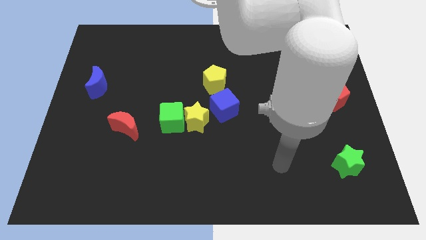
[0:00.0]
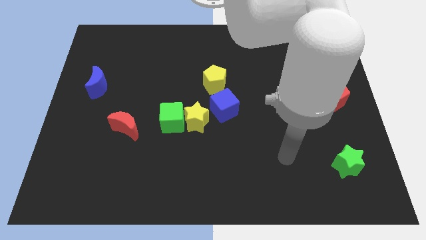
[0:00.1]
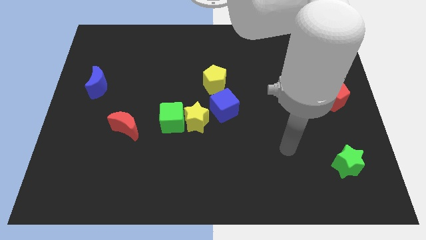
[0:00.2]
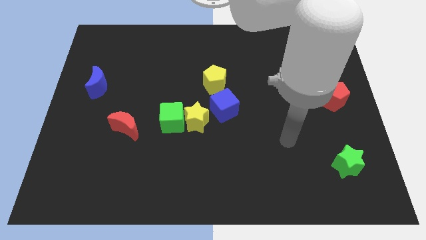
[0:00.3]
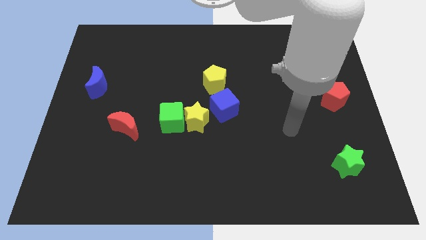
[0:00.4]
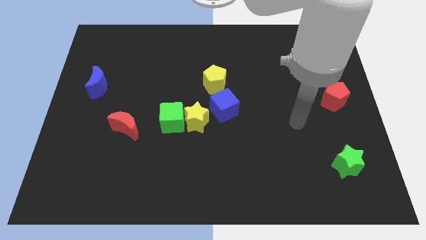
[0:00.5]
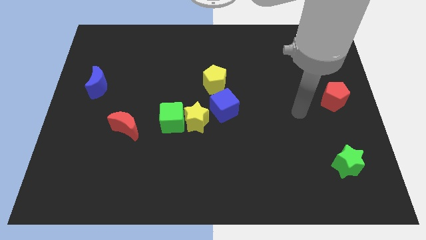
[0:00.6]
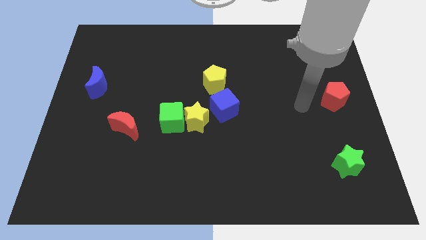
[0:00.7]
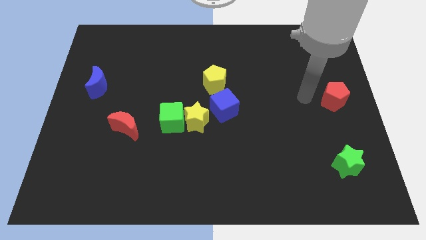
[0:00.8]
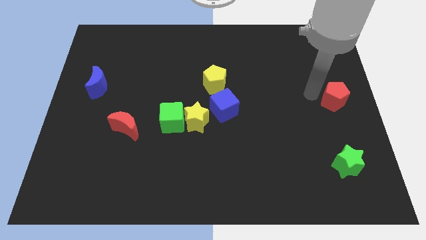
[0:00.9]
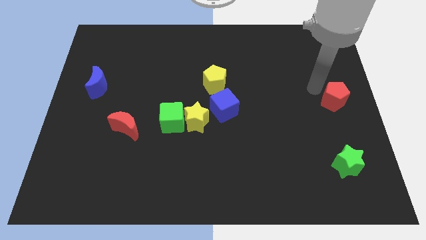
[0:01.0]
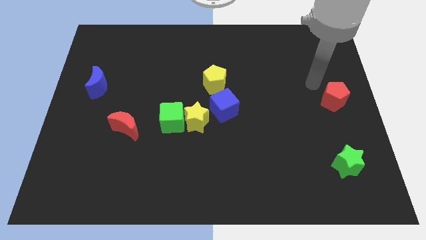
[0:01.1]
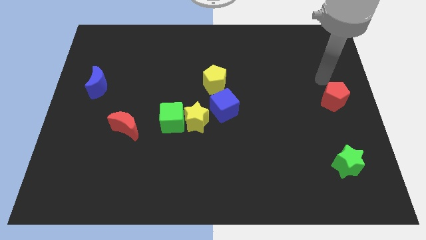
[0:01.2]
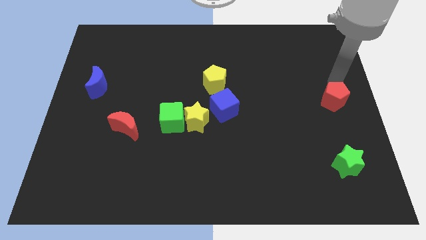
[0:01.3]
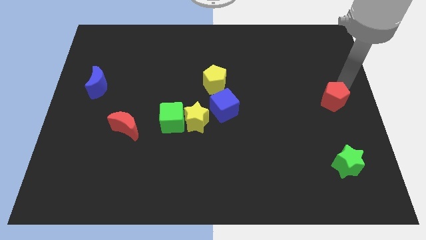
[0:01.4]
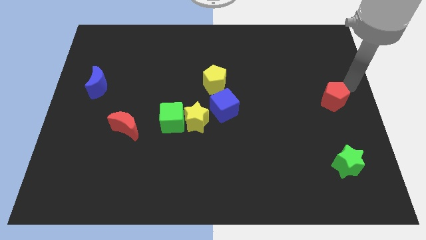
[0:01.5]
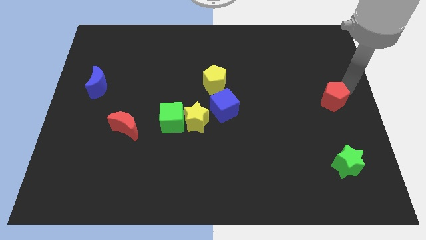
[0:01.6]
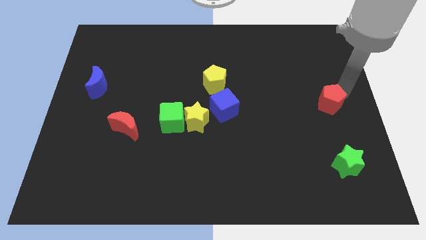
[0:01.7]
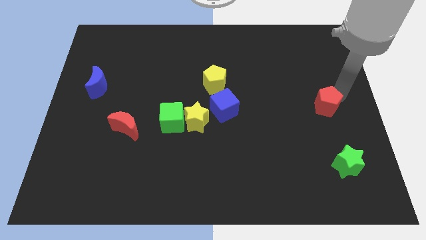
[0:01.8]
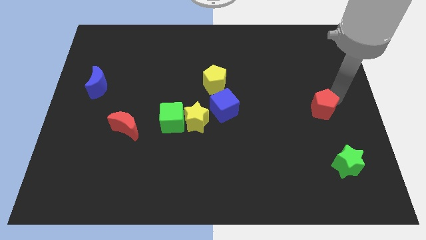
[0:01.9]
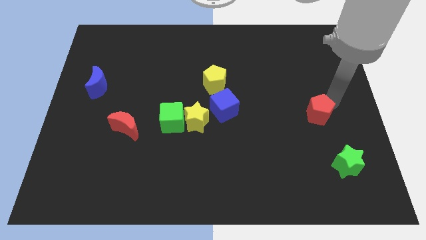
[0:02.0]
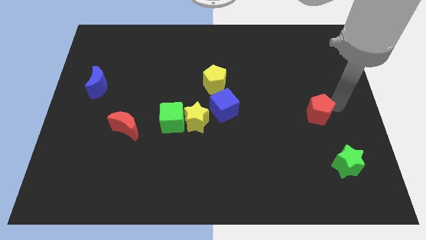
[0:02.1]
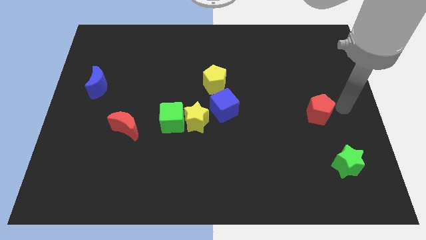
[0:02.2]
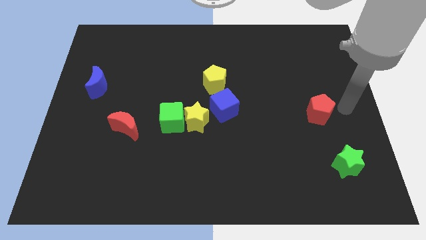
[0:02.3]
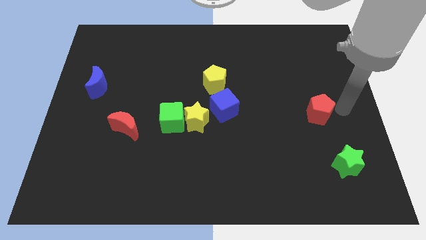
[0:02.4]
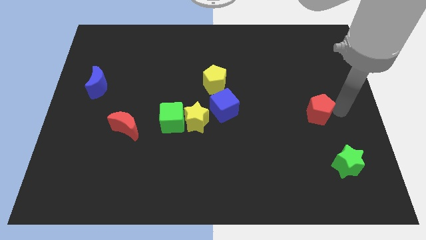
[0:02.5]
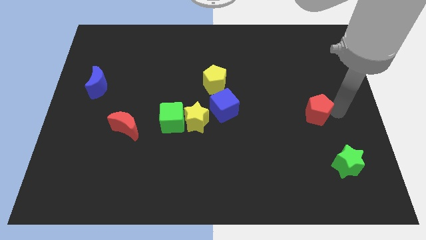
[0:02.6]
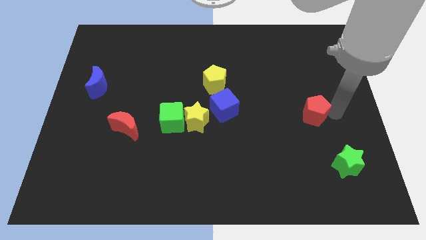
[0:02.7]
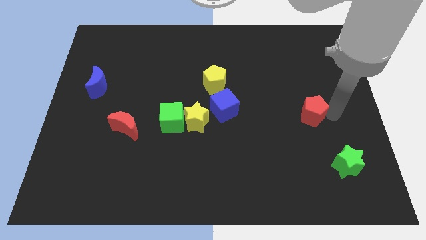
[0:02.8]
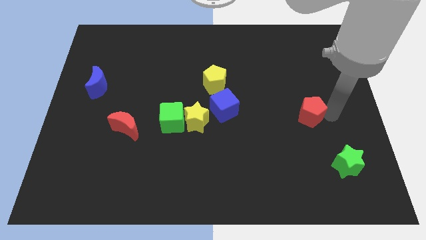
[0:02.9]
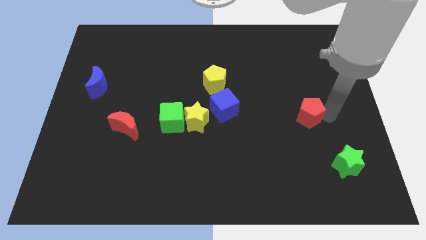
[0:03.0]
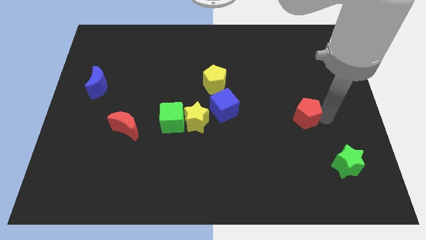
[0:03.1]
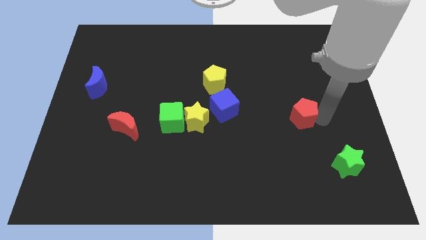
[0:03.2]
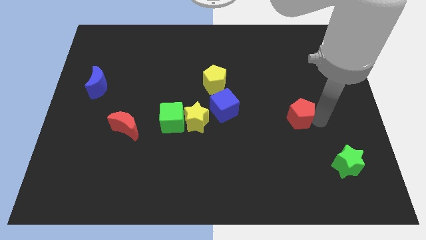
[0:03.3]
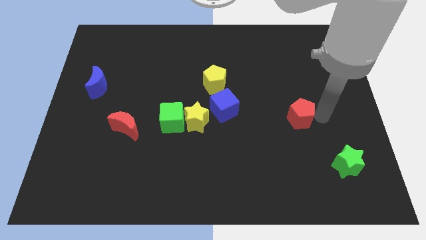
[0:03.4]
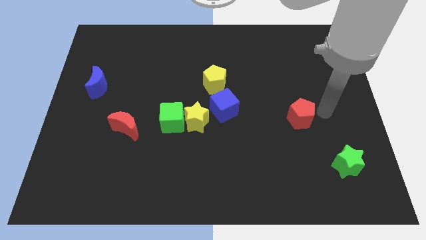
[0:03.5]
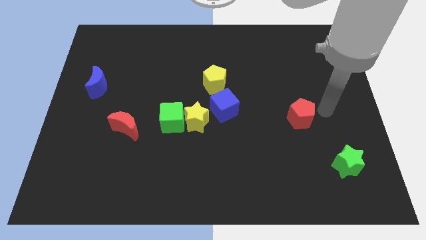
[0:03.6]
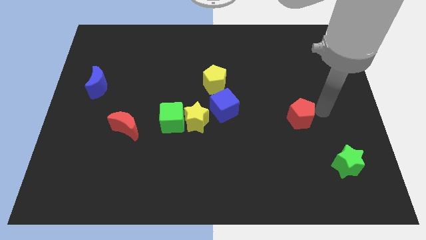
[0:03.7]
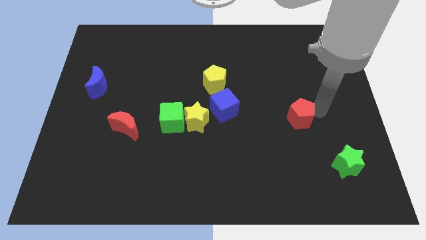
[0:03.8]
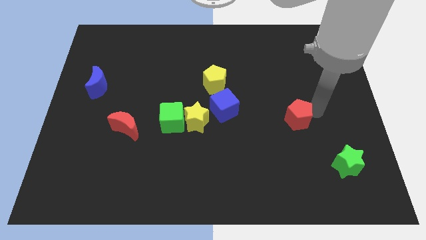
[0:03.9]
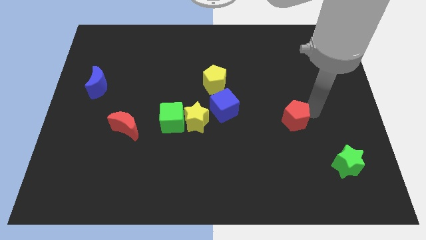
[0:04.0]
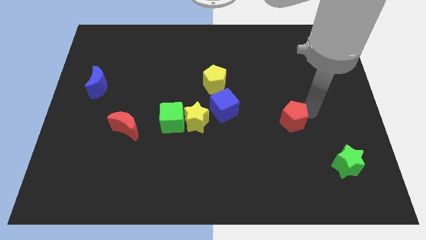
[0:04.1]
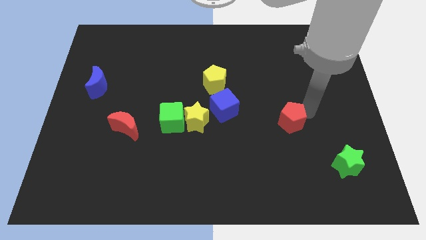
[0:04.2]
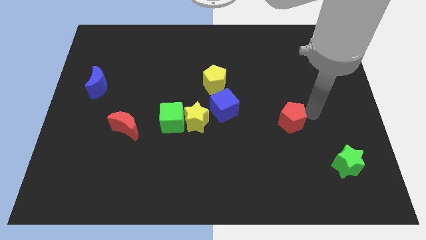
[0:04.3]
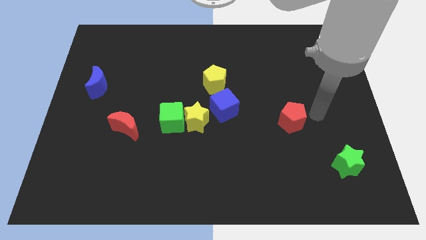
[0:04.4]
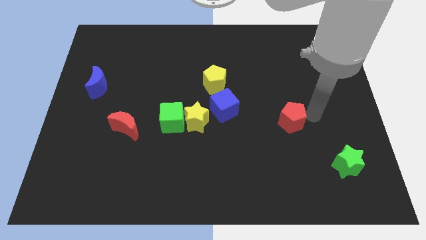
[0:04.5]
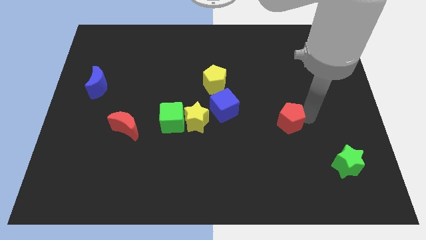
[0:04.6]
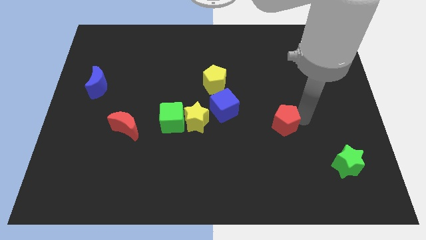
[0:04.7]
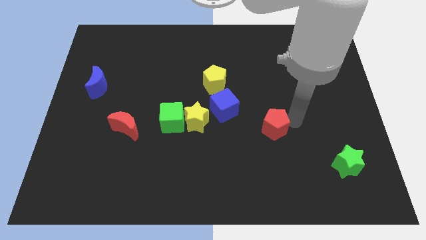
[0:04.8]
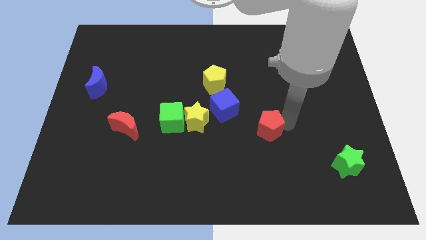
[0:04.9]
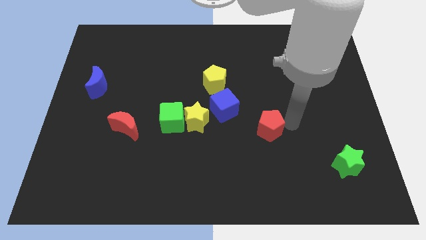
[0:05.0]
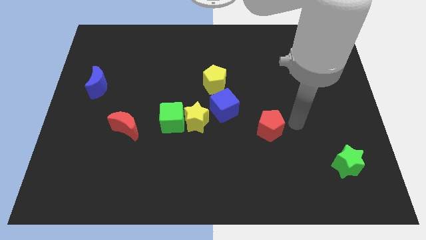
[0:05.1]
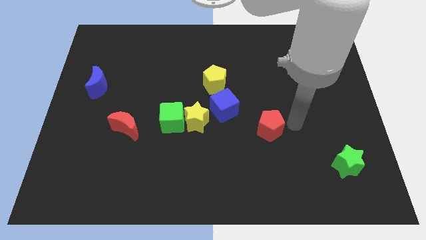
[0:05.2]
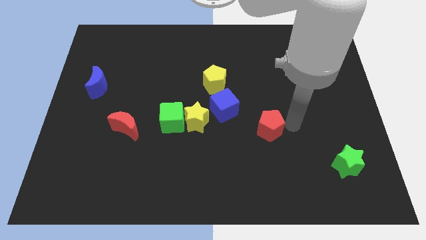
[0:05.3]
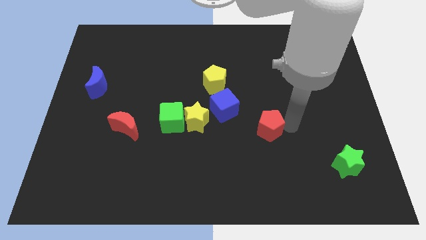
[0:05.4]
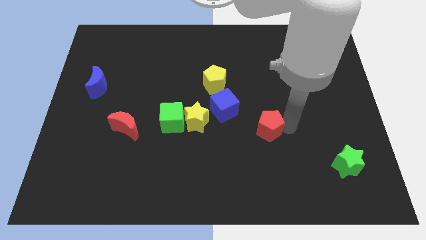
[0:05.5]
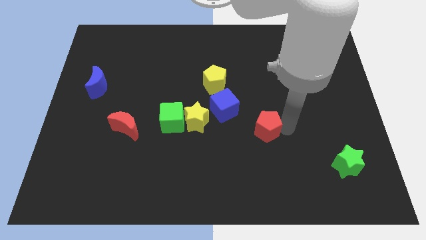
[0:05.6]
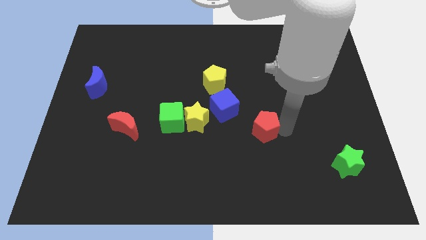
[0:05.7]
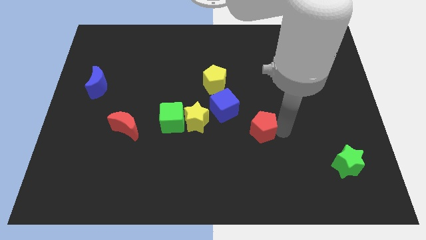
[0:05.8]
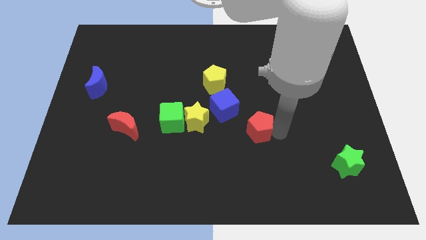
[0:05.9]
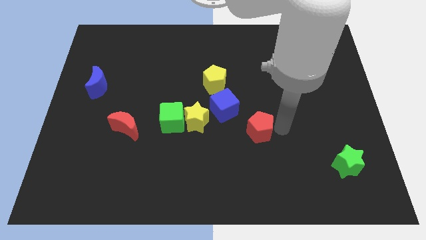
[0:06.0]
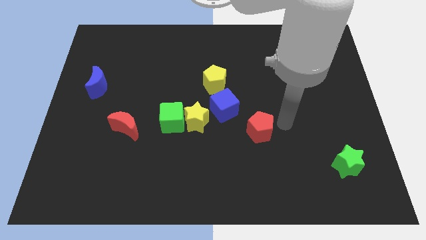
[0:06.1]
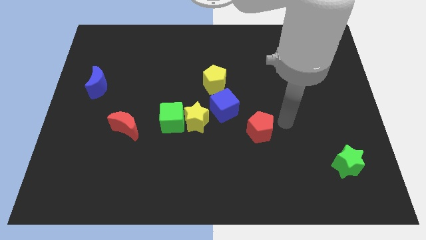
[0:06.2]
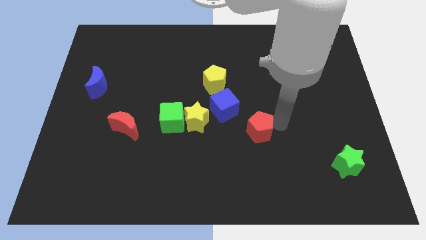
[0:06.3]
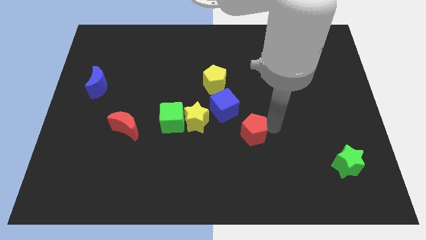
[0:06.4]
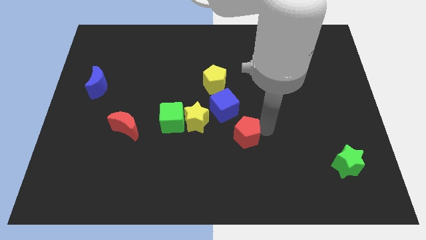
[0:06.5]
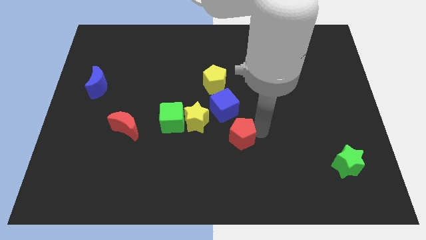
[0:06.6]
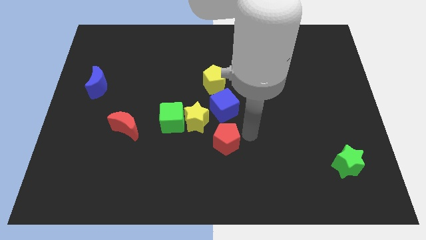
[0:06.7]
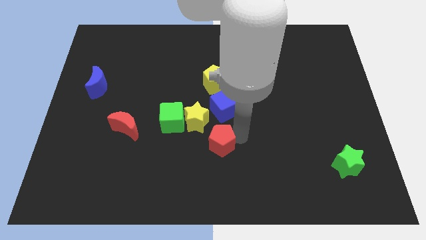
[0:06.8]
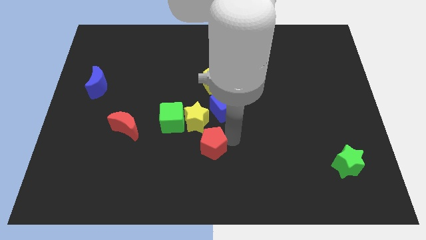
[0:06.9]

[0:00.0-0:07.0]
slide the red pentagon to the bottom of the yellow star

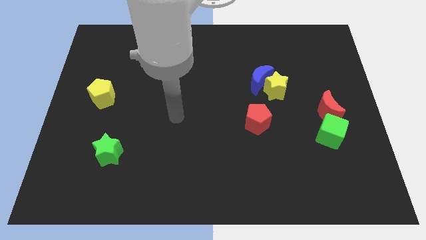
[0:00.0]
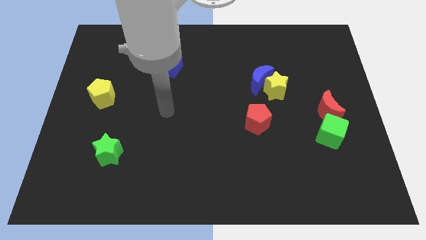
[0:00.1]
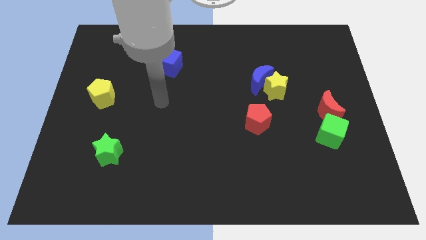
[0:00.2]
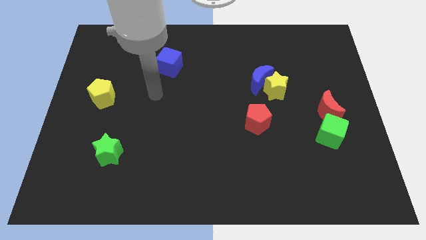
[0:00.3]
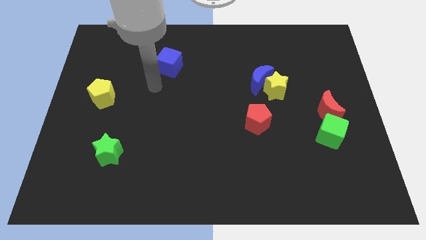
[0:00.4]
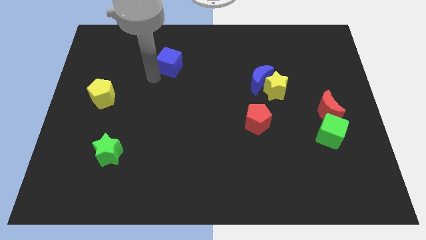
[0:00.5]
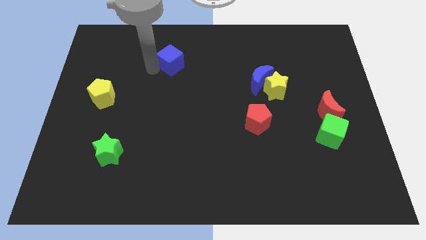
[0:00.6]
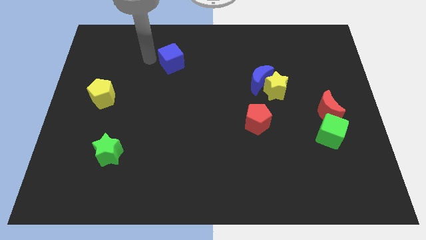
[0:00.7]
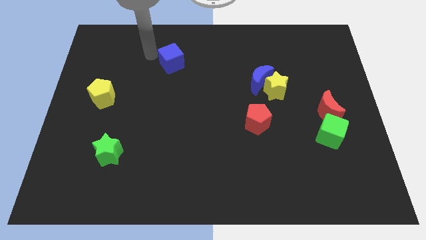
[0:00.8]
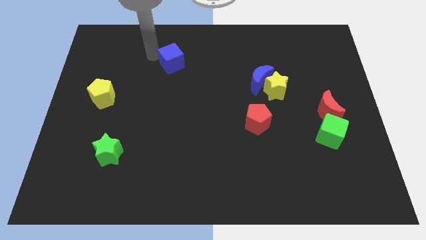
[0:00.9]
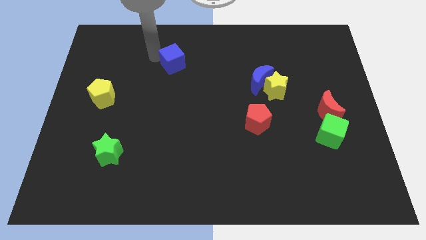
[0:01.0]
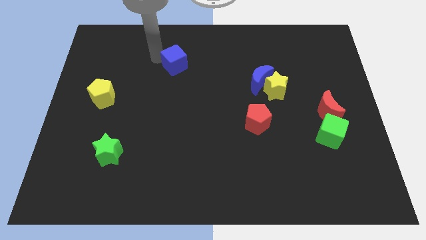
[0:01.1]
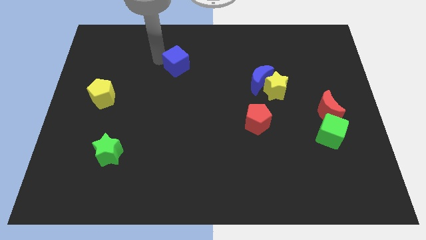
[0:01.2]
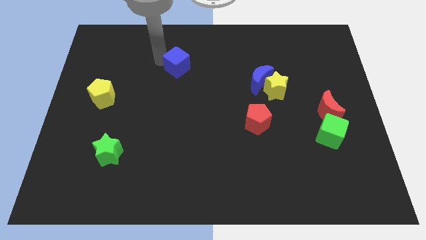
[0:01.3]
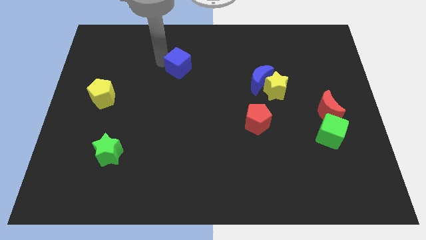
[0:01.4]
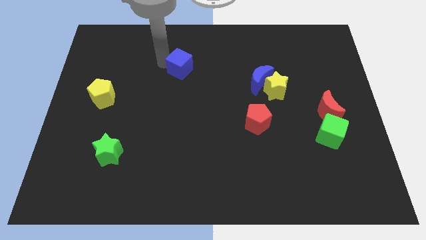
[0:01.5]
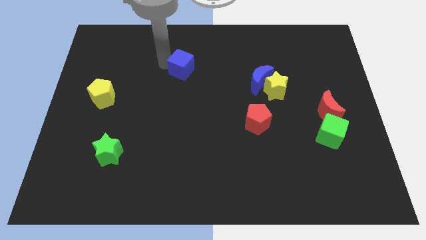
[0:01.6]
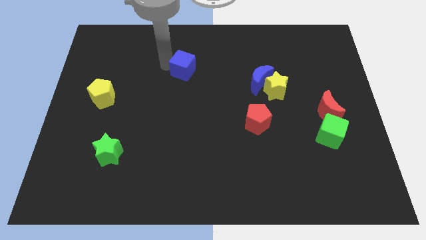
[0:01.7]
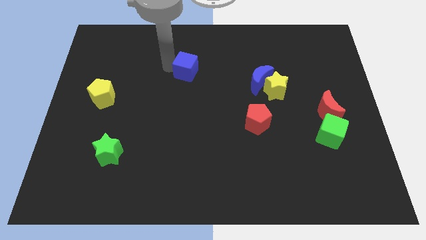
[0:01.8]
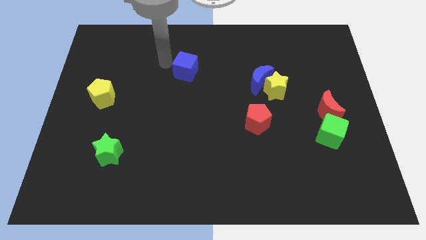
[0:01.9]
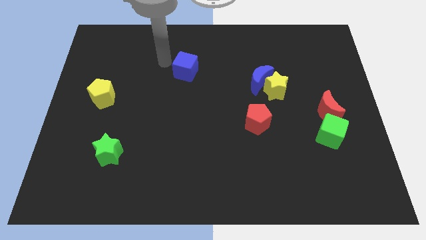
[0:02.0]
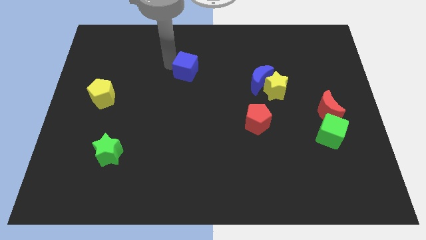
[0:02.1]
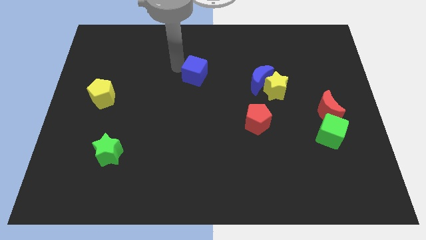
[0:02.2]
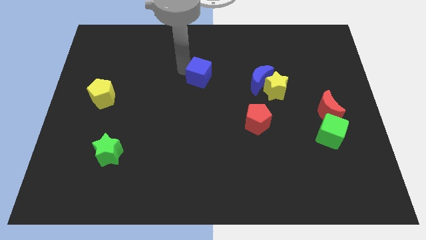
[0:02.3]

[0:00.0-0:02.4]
slide the blue cube to the left side of the blue moon
